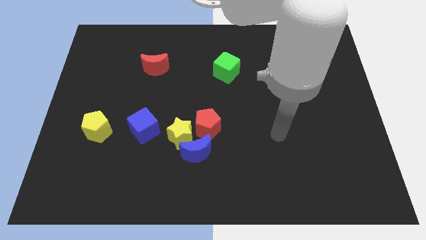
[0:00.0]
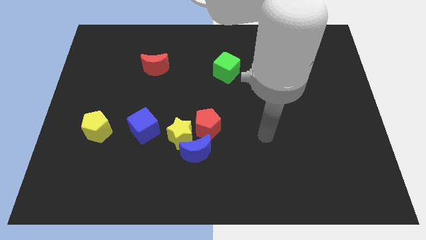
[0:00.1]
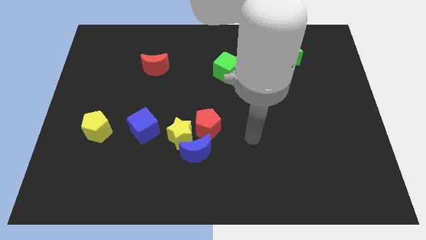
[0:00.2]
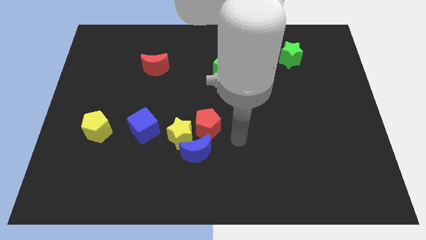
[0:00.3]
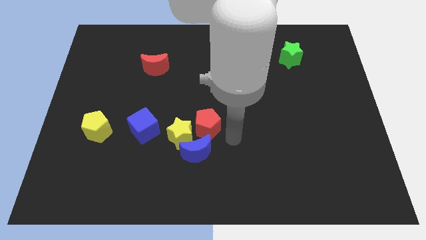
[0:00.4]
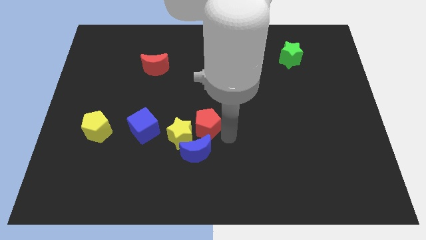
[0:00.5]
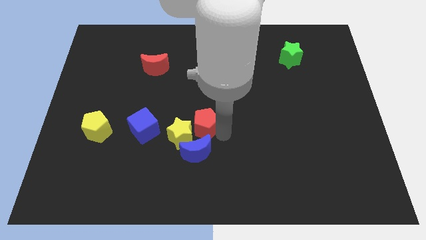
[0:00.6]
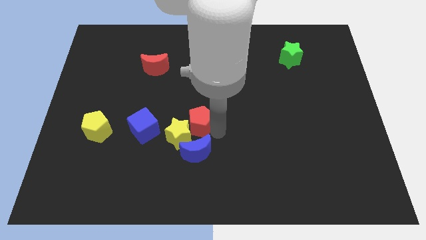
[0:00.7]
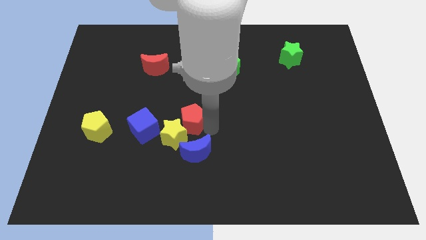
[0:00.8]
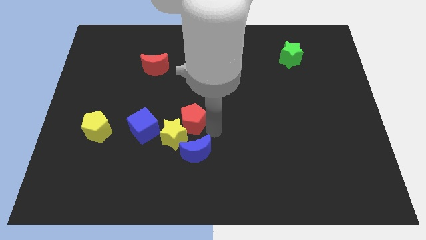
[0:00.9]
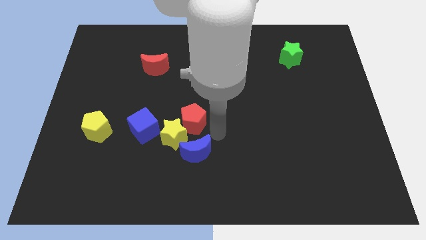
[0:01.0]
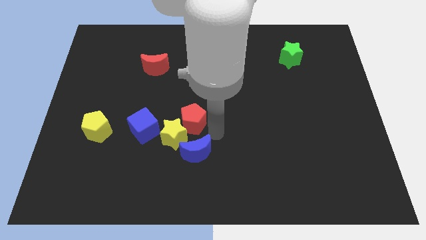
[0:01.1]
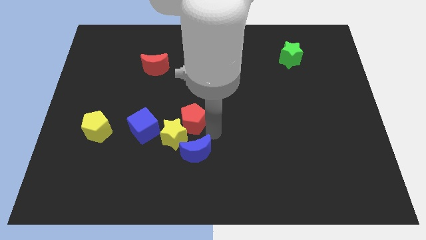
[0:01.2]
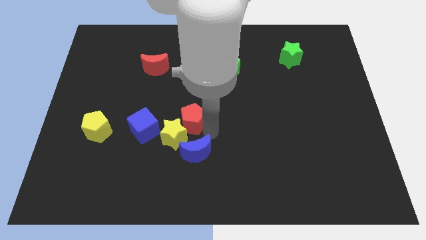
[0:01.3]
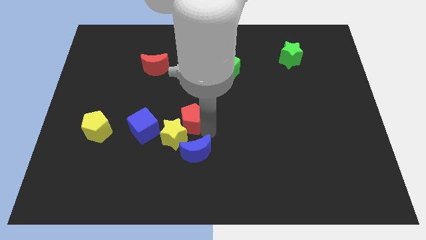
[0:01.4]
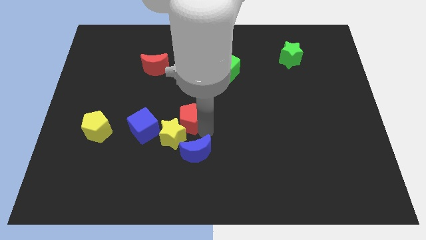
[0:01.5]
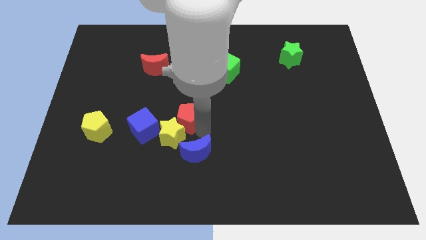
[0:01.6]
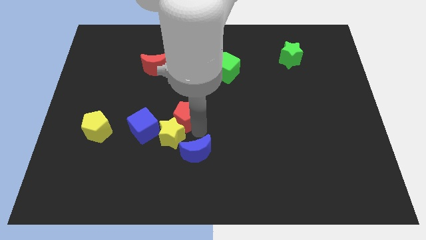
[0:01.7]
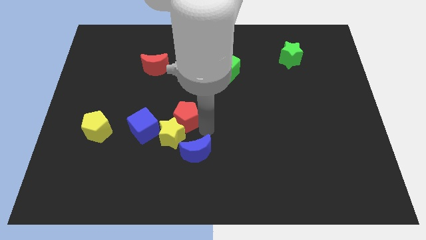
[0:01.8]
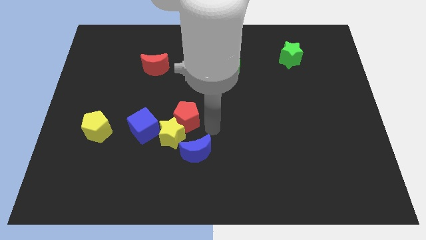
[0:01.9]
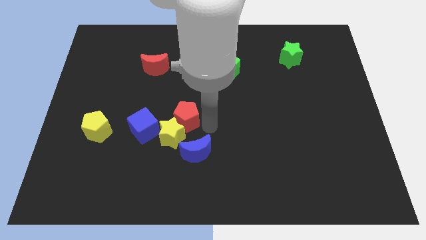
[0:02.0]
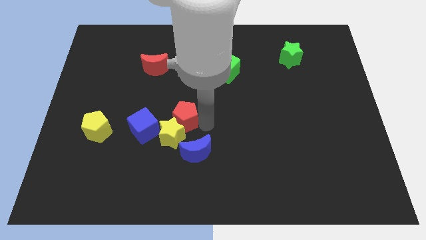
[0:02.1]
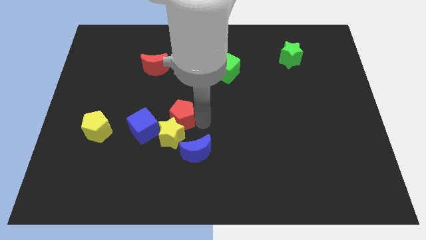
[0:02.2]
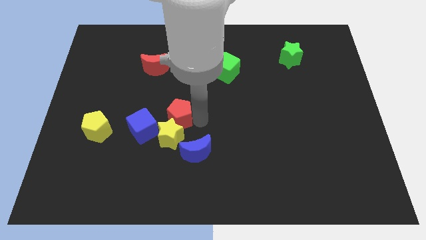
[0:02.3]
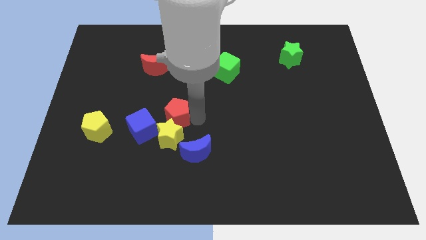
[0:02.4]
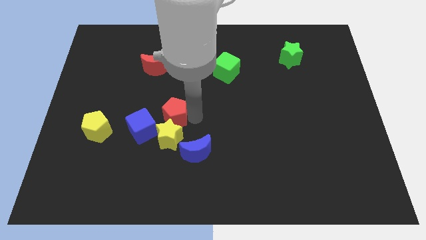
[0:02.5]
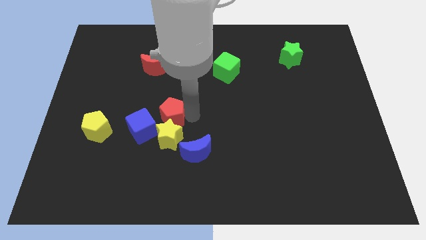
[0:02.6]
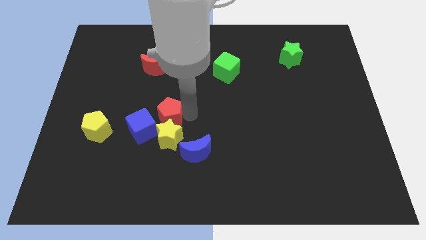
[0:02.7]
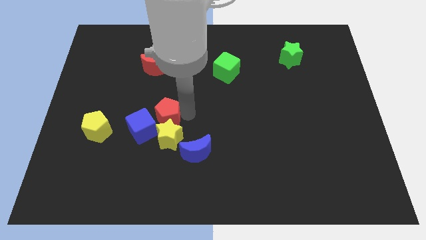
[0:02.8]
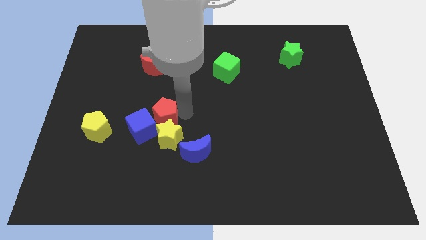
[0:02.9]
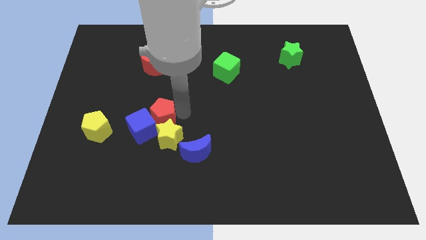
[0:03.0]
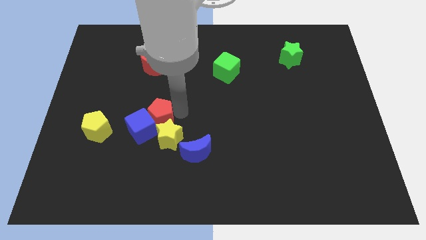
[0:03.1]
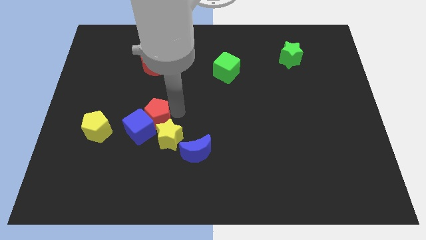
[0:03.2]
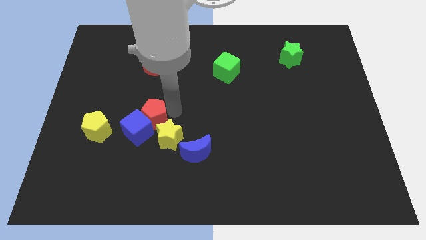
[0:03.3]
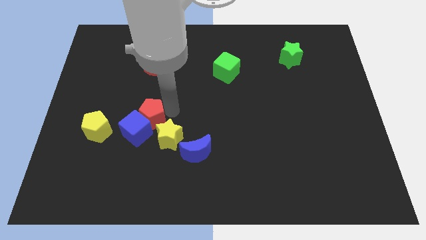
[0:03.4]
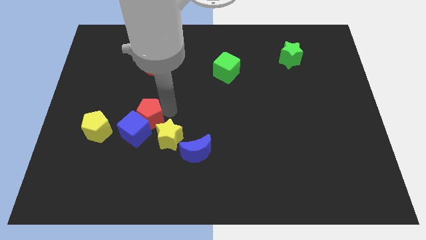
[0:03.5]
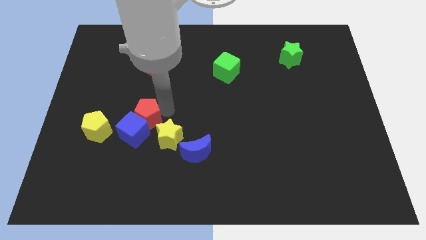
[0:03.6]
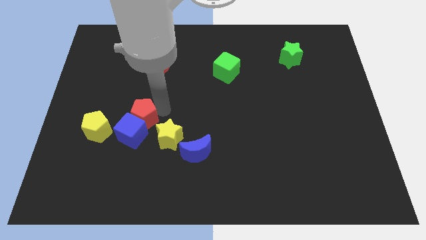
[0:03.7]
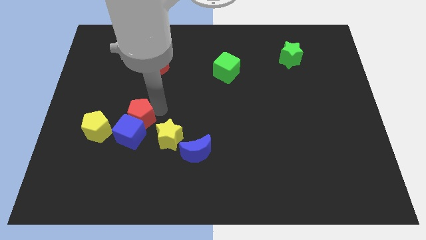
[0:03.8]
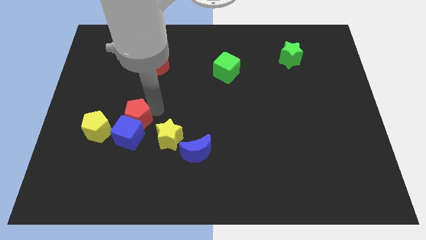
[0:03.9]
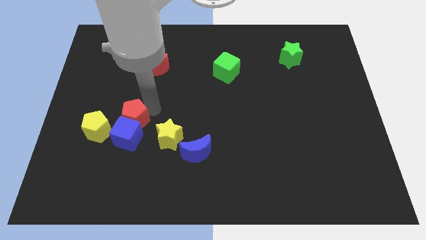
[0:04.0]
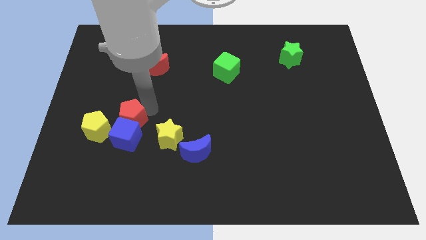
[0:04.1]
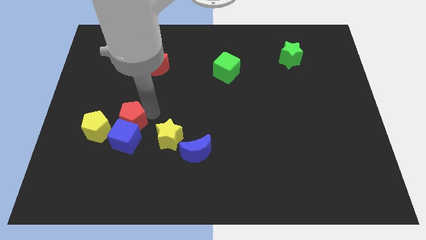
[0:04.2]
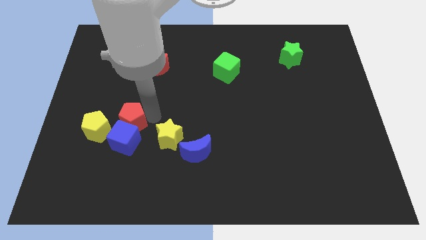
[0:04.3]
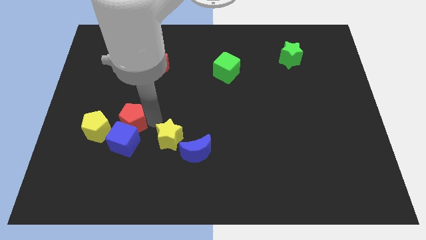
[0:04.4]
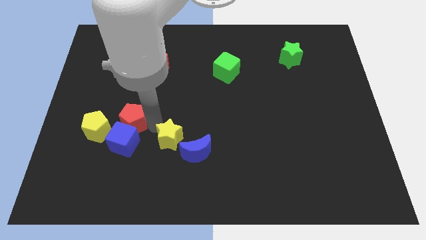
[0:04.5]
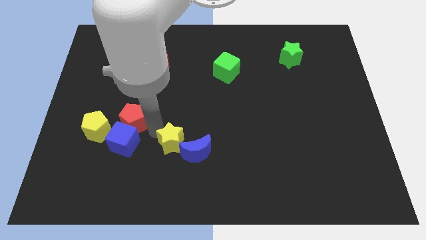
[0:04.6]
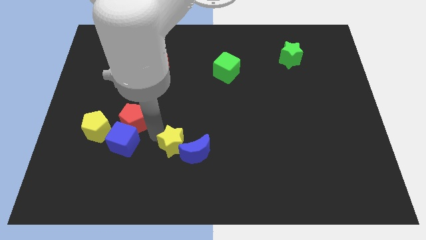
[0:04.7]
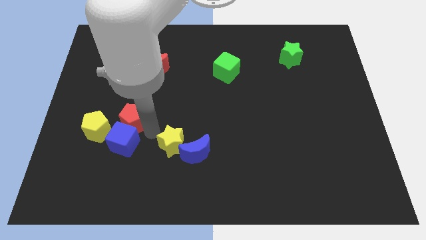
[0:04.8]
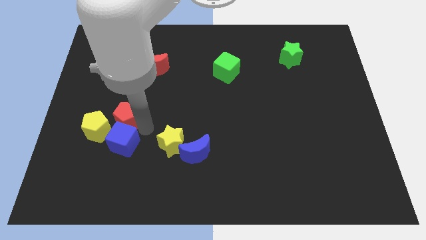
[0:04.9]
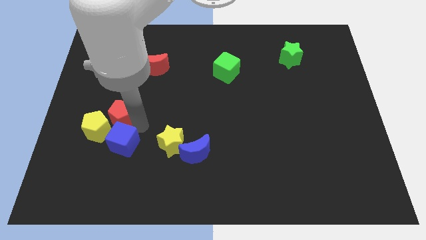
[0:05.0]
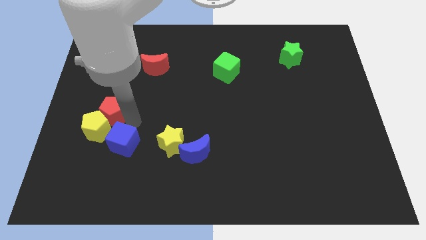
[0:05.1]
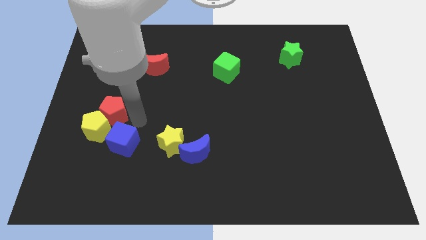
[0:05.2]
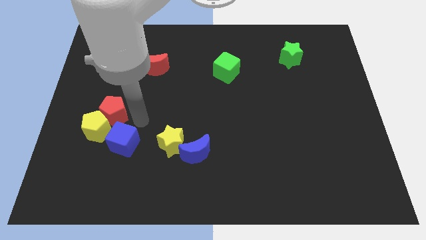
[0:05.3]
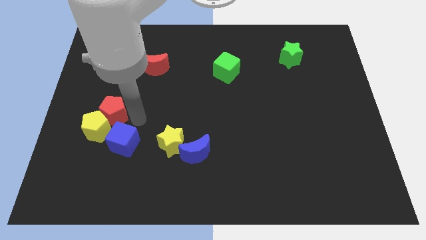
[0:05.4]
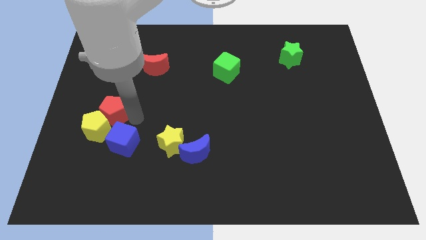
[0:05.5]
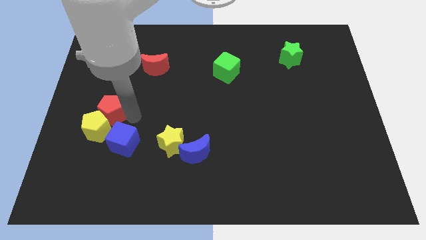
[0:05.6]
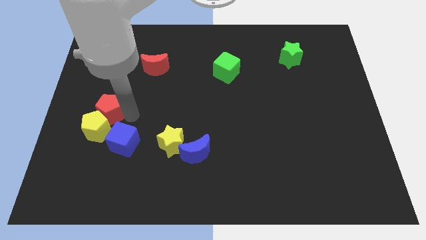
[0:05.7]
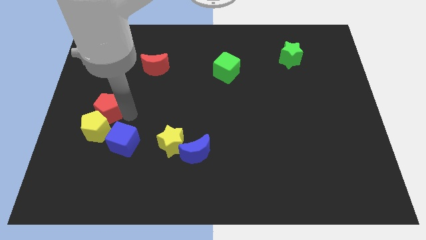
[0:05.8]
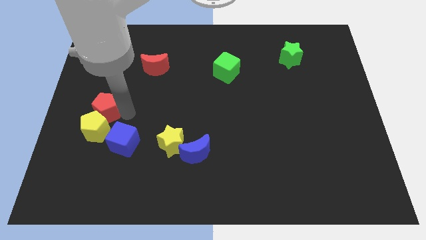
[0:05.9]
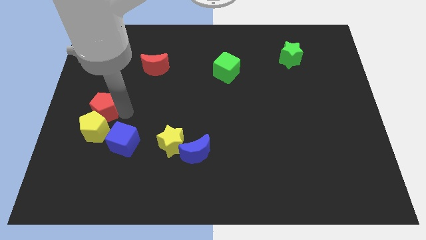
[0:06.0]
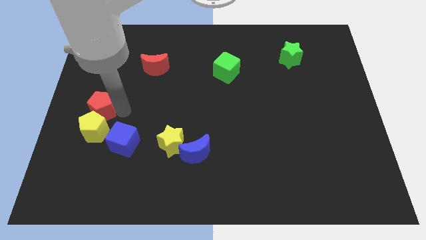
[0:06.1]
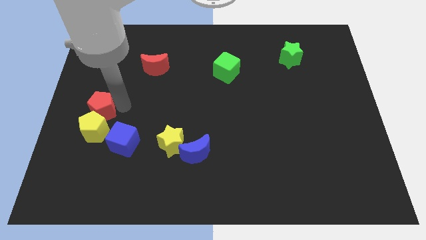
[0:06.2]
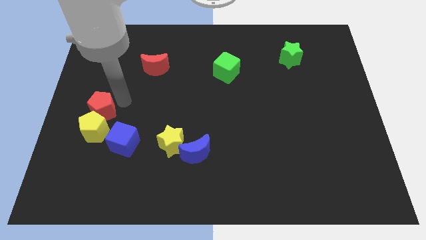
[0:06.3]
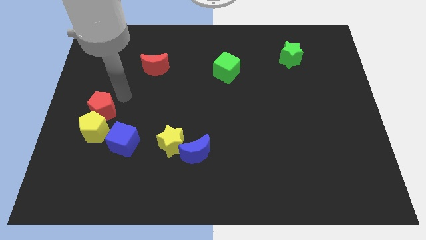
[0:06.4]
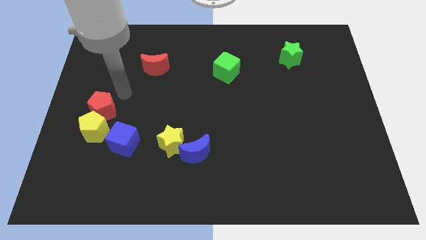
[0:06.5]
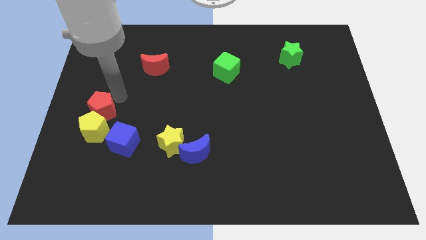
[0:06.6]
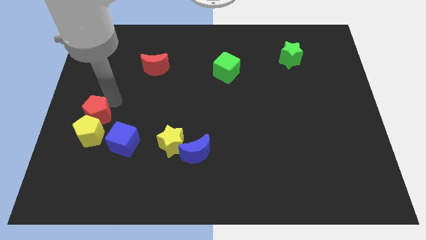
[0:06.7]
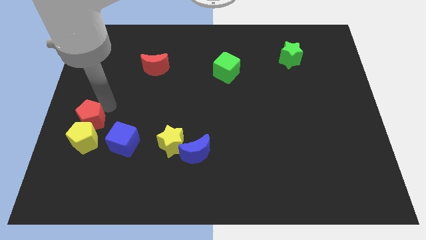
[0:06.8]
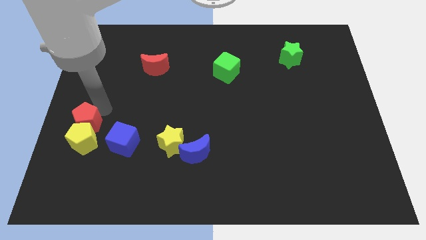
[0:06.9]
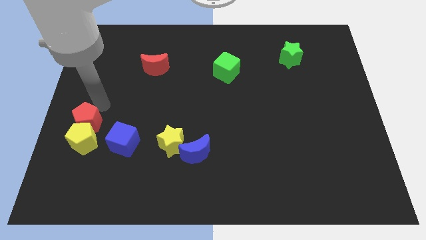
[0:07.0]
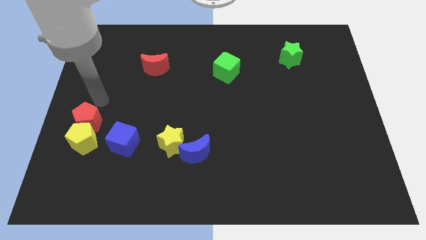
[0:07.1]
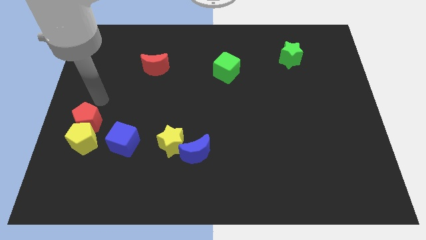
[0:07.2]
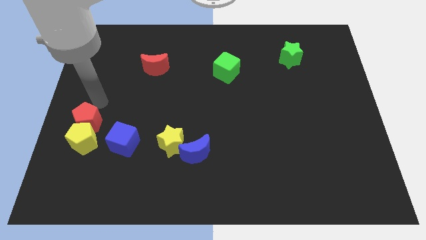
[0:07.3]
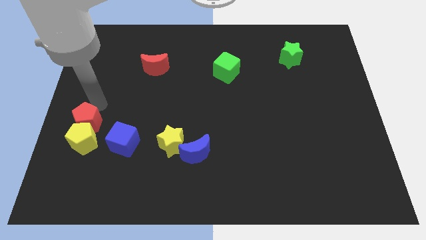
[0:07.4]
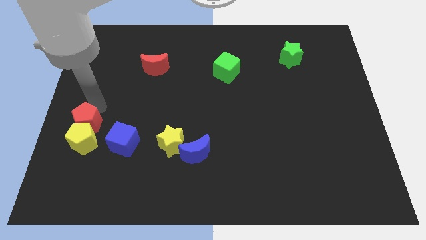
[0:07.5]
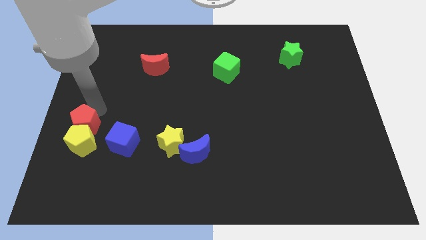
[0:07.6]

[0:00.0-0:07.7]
put the red pentagon to the left side of the blue cube
